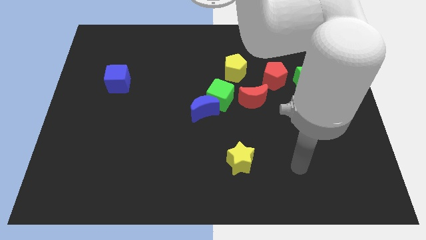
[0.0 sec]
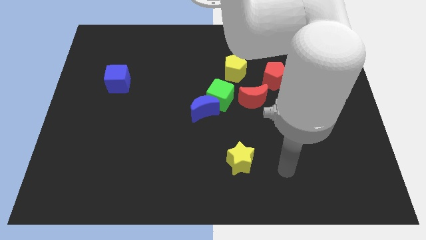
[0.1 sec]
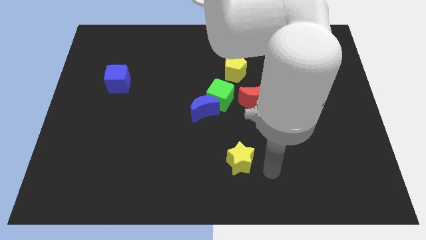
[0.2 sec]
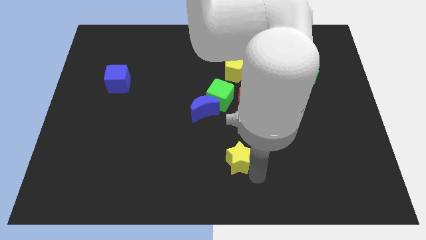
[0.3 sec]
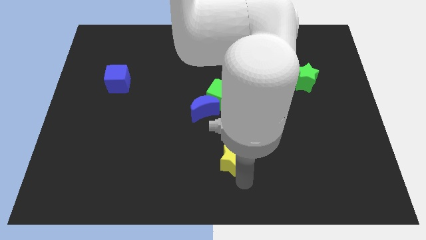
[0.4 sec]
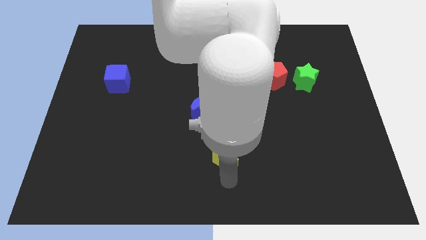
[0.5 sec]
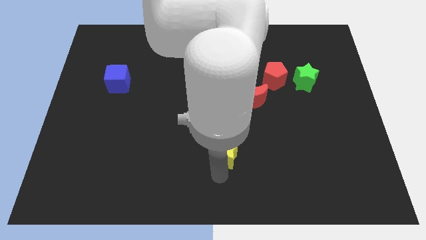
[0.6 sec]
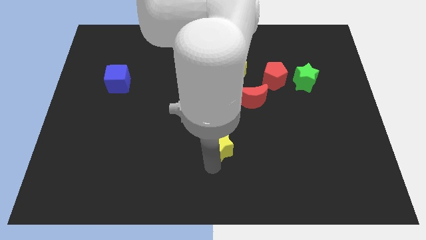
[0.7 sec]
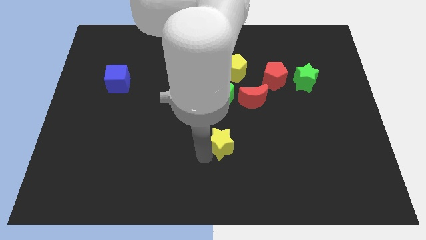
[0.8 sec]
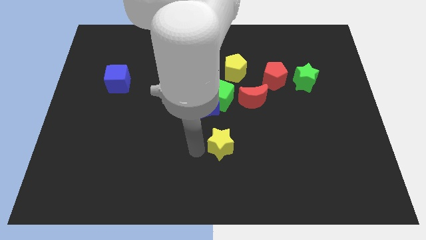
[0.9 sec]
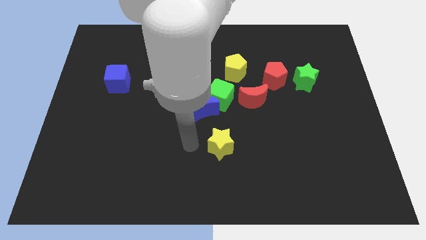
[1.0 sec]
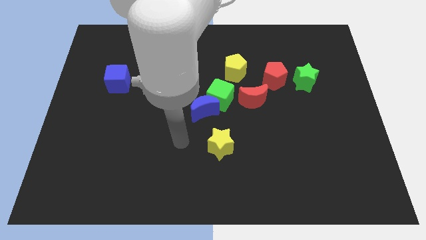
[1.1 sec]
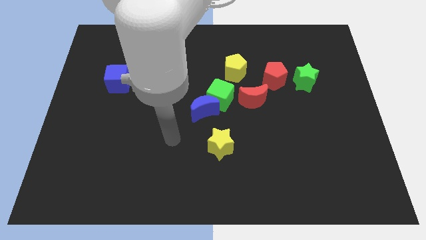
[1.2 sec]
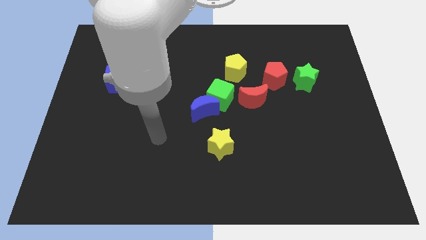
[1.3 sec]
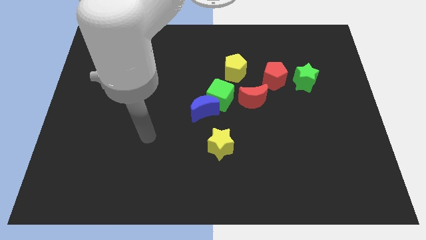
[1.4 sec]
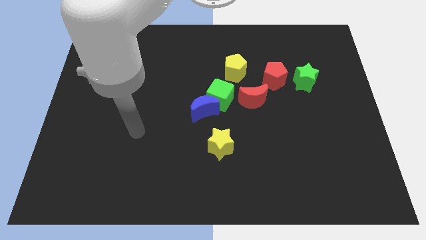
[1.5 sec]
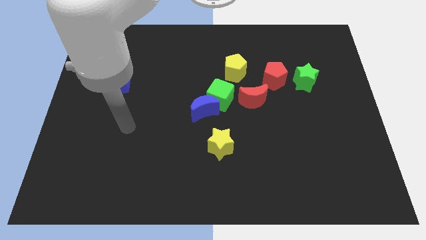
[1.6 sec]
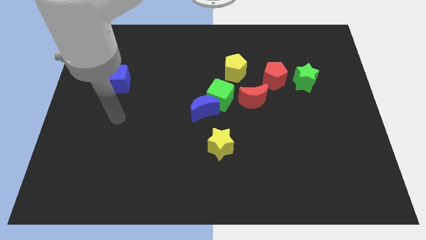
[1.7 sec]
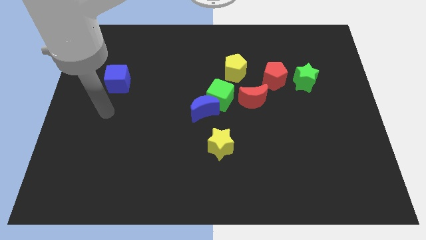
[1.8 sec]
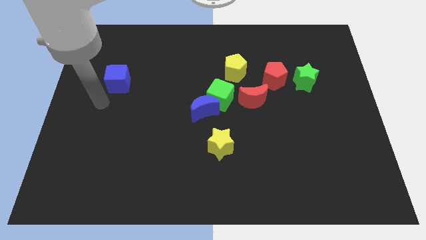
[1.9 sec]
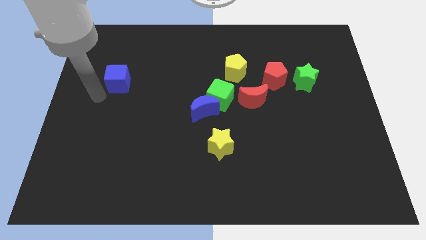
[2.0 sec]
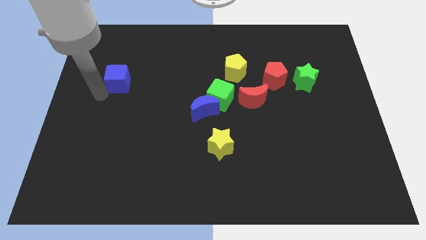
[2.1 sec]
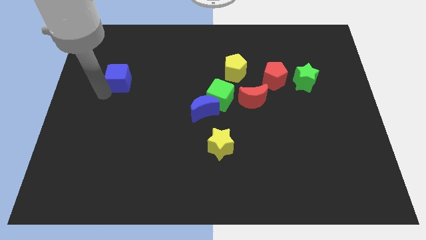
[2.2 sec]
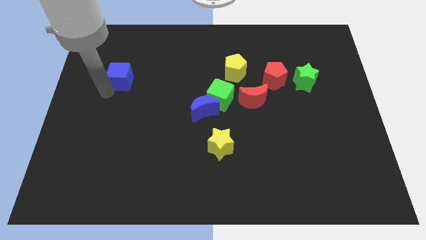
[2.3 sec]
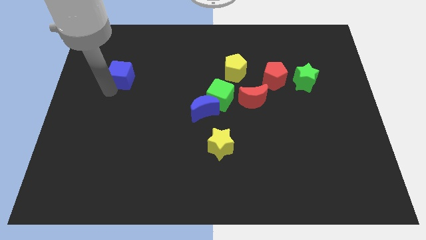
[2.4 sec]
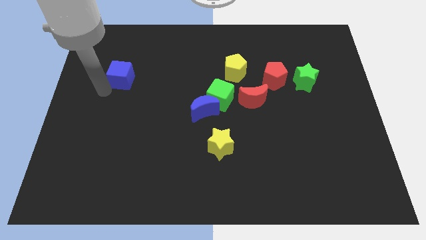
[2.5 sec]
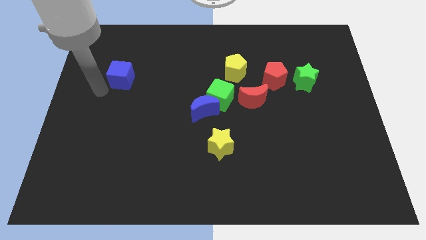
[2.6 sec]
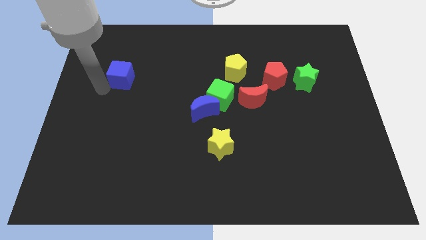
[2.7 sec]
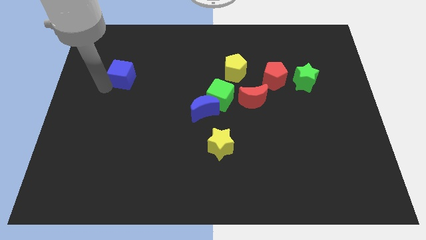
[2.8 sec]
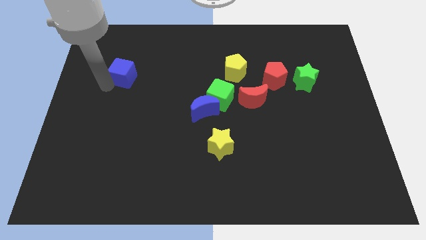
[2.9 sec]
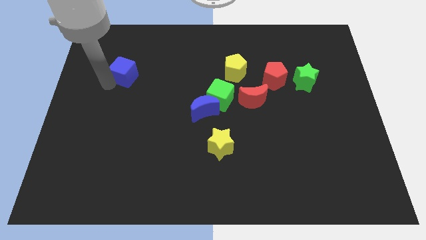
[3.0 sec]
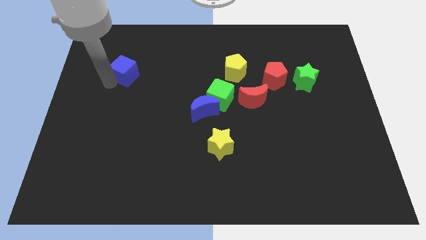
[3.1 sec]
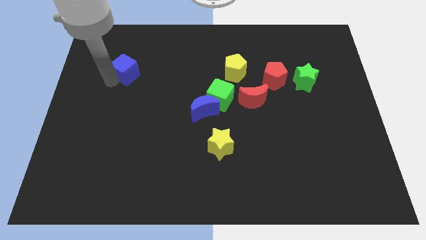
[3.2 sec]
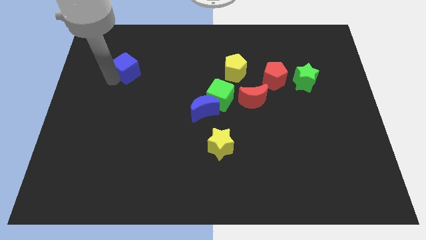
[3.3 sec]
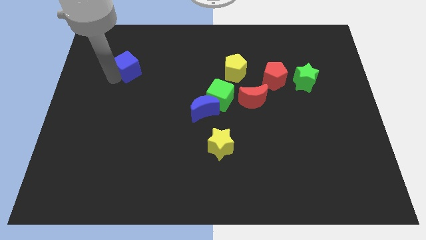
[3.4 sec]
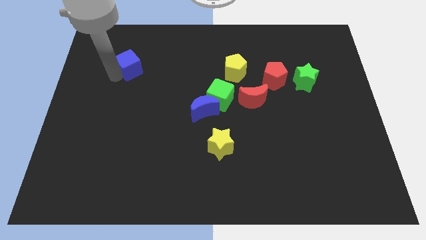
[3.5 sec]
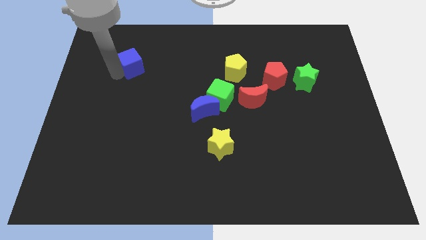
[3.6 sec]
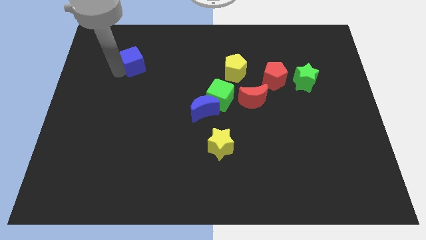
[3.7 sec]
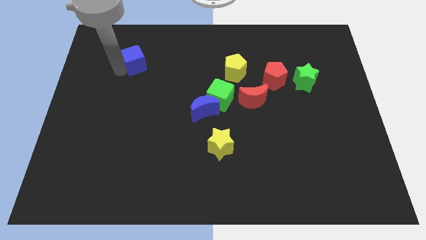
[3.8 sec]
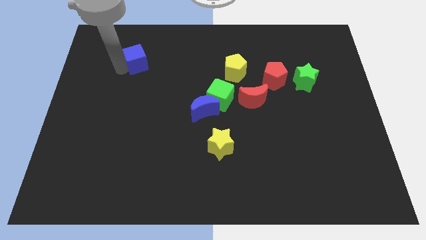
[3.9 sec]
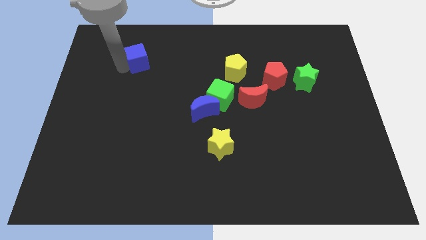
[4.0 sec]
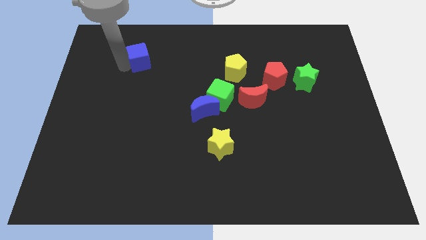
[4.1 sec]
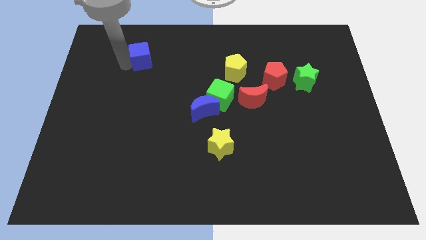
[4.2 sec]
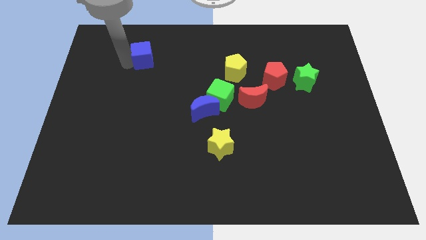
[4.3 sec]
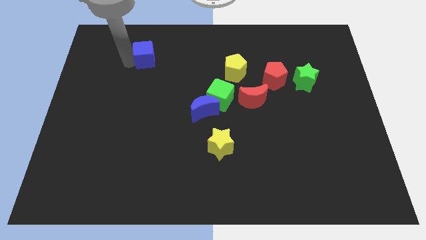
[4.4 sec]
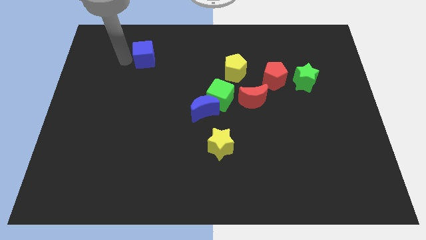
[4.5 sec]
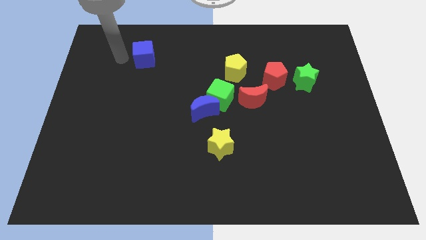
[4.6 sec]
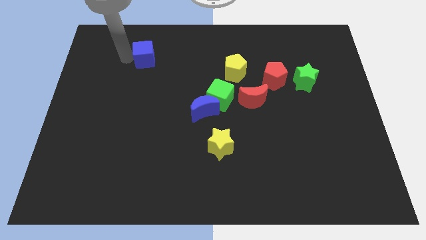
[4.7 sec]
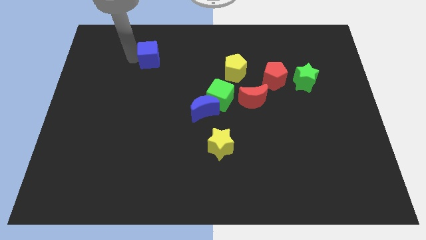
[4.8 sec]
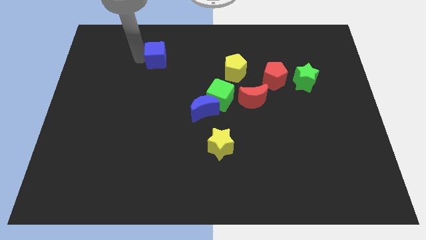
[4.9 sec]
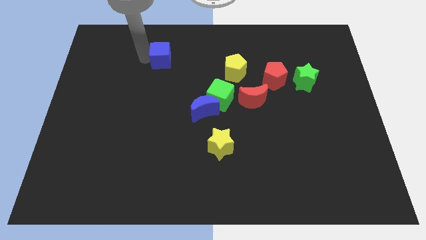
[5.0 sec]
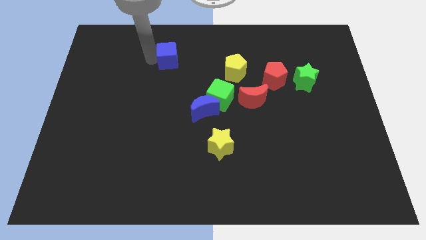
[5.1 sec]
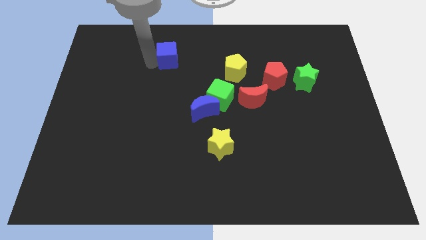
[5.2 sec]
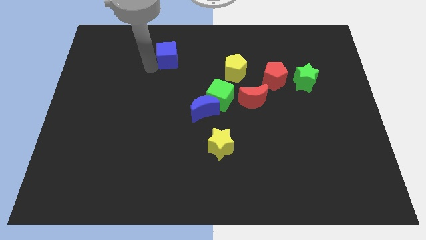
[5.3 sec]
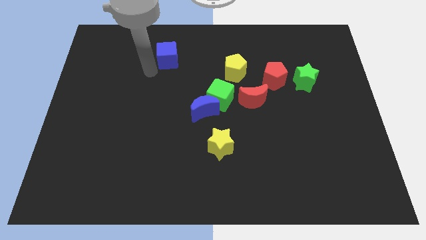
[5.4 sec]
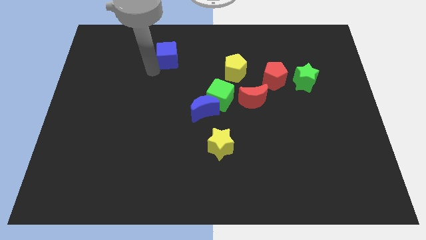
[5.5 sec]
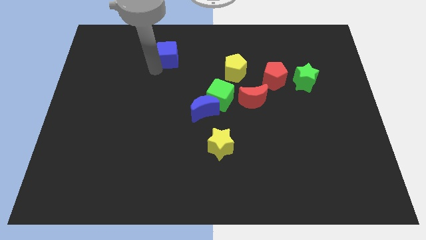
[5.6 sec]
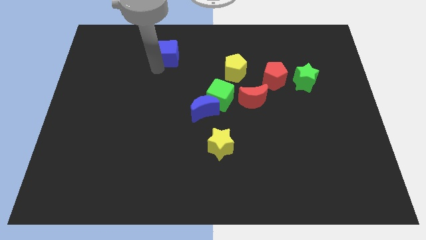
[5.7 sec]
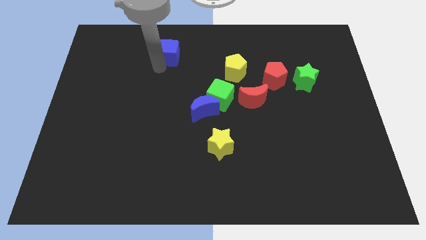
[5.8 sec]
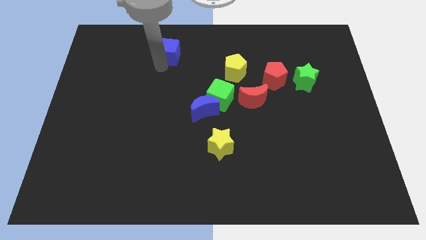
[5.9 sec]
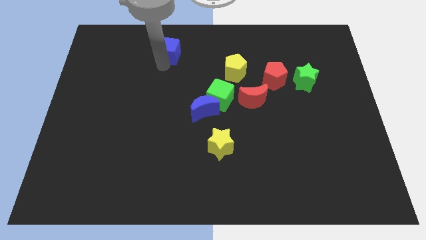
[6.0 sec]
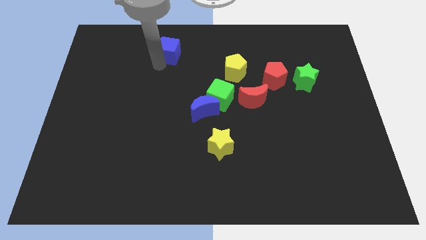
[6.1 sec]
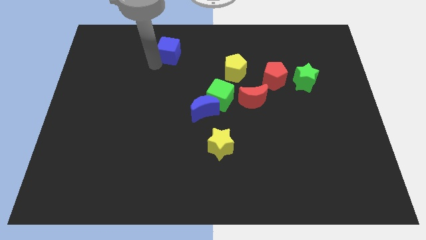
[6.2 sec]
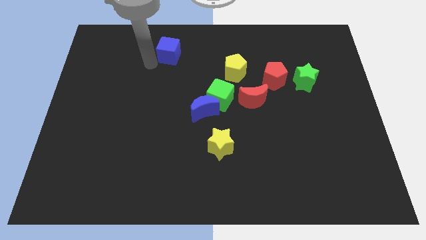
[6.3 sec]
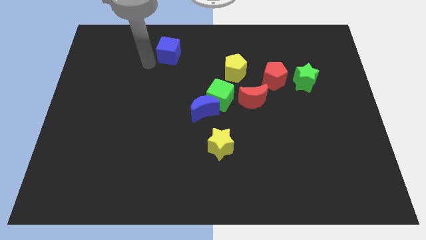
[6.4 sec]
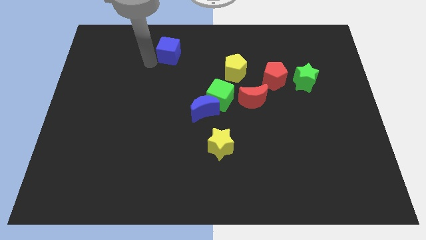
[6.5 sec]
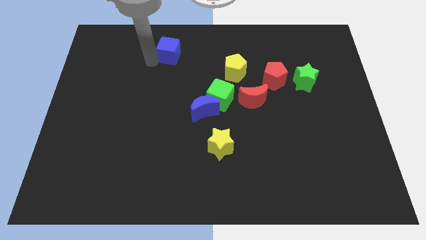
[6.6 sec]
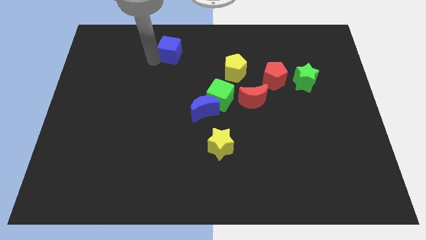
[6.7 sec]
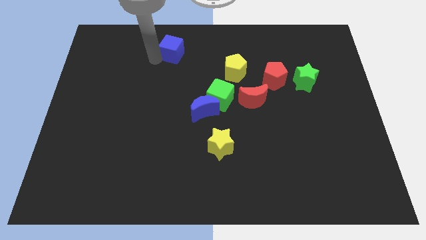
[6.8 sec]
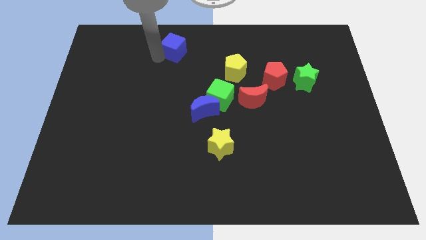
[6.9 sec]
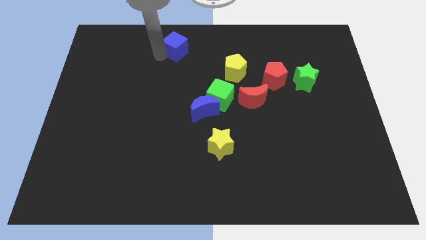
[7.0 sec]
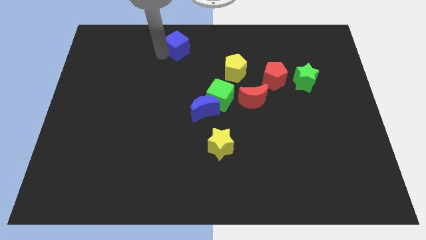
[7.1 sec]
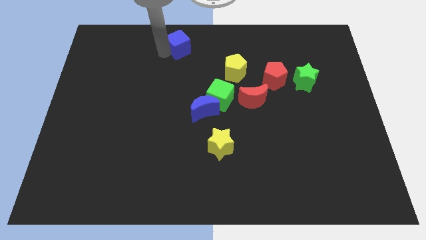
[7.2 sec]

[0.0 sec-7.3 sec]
move the blue cube to the top
